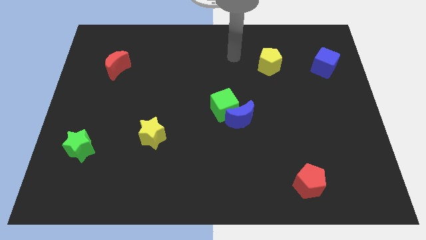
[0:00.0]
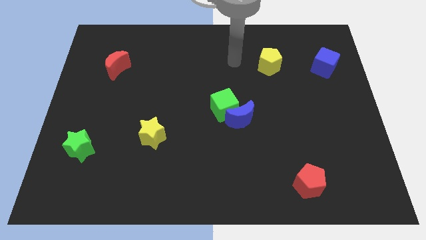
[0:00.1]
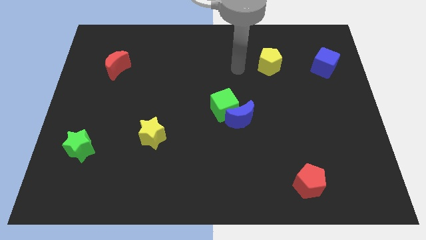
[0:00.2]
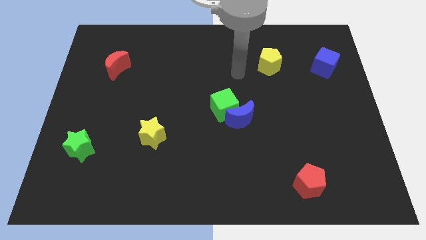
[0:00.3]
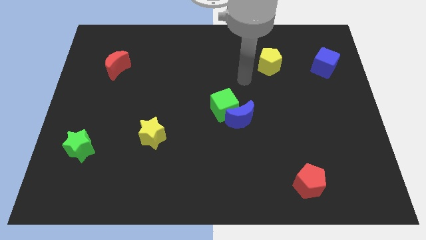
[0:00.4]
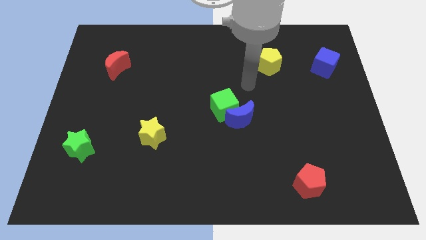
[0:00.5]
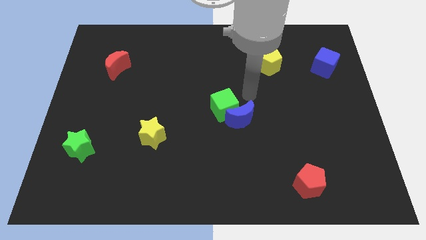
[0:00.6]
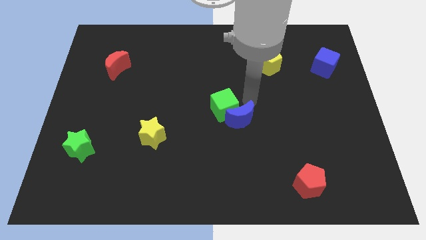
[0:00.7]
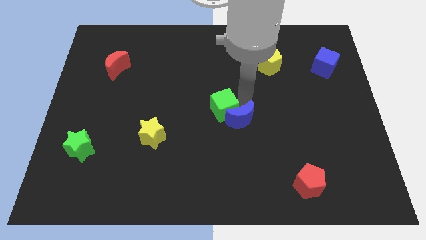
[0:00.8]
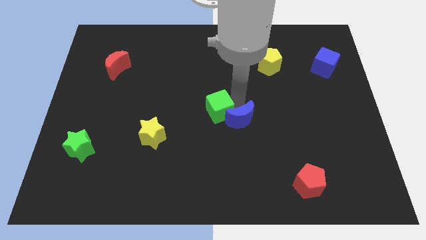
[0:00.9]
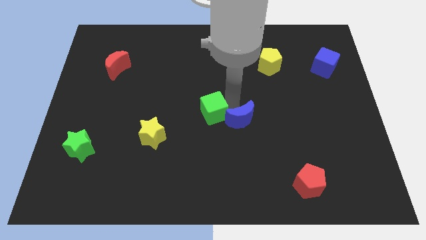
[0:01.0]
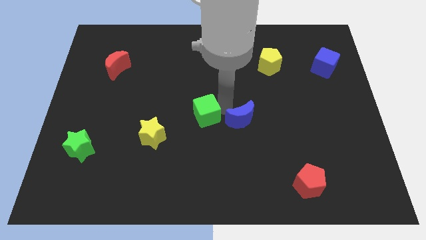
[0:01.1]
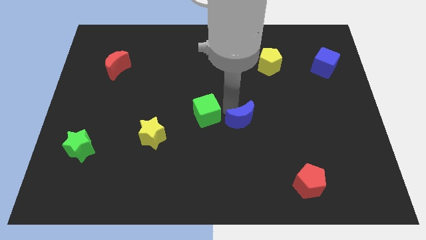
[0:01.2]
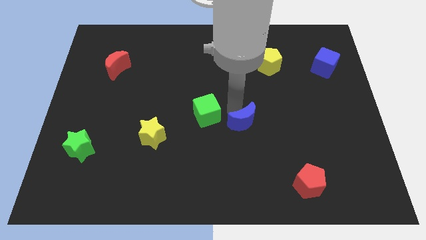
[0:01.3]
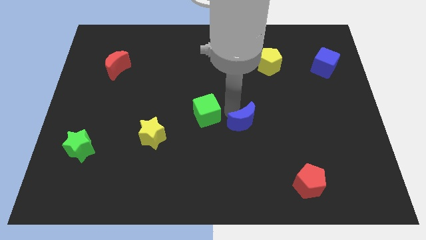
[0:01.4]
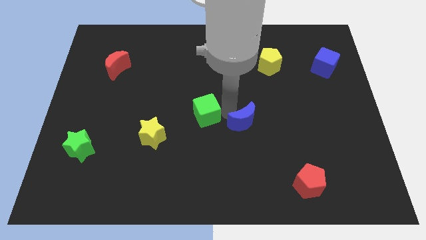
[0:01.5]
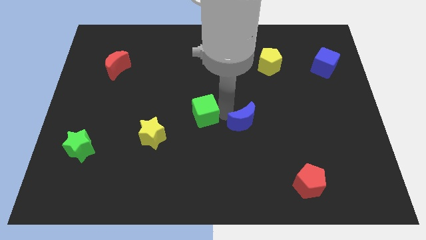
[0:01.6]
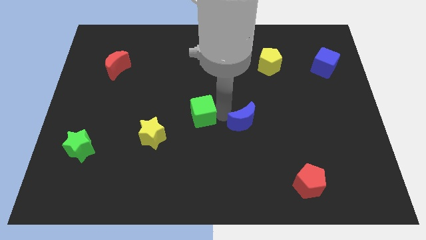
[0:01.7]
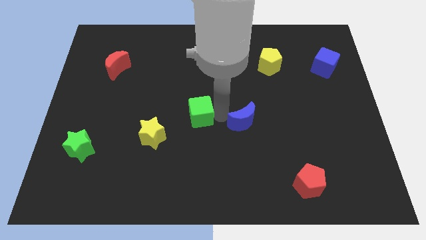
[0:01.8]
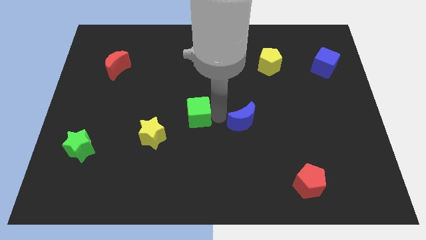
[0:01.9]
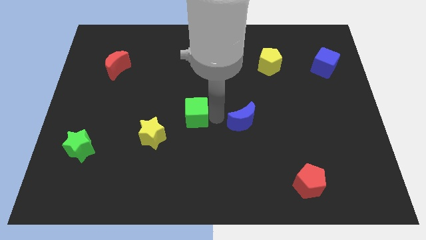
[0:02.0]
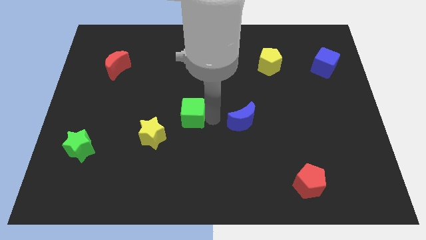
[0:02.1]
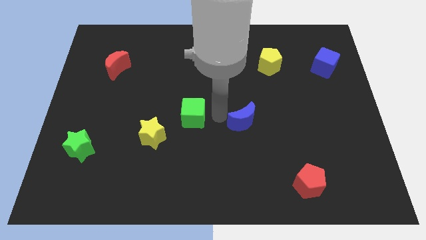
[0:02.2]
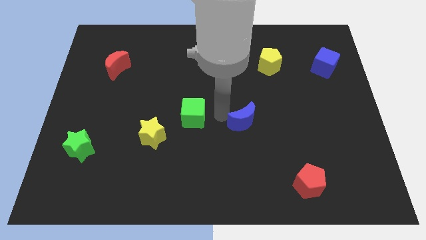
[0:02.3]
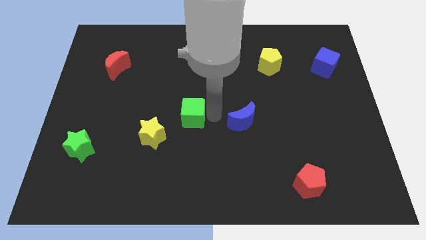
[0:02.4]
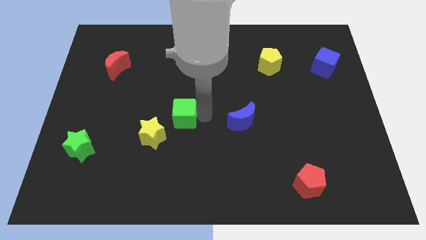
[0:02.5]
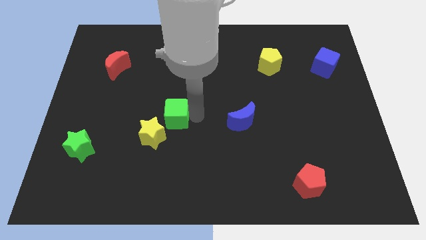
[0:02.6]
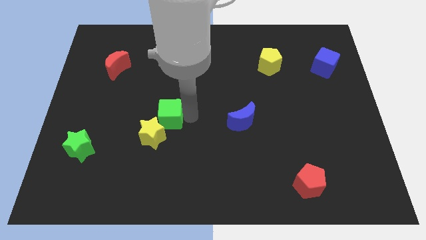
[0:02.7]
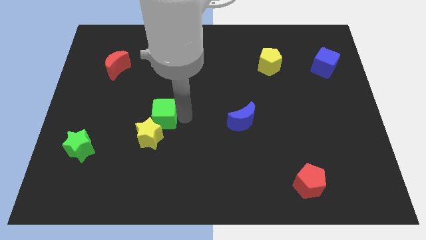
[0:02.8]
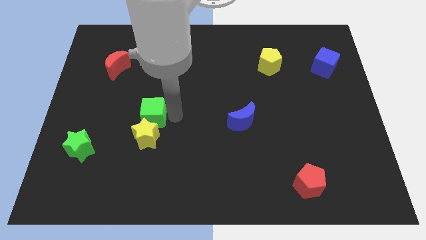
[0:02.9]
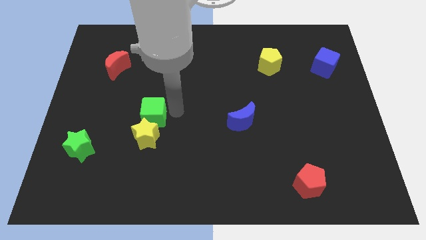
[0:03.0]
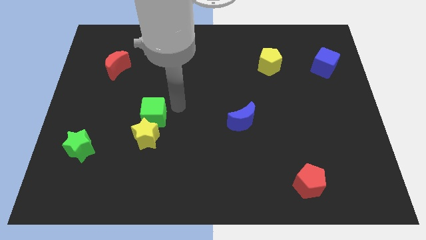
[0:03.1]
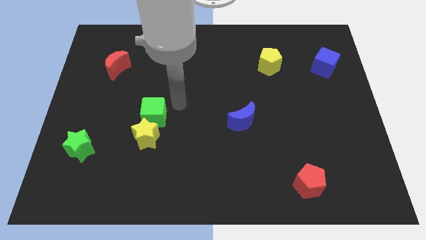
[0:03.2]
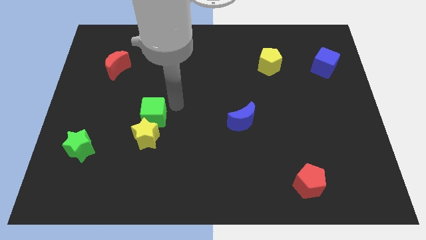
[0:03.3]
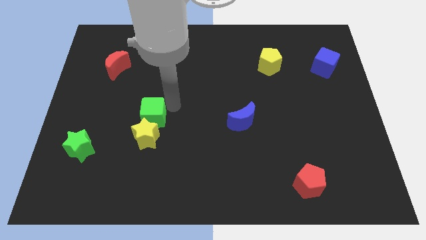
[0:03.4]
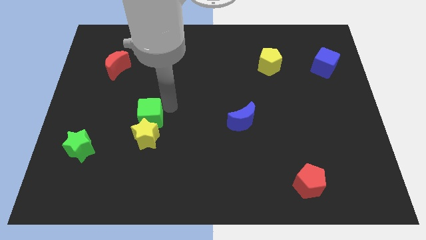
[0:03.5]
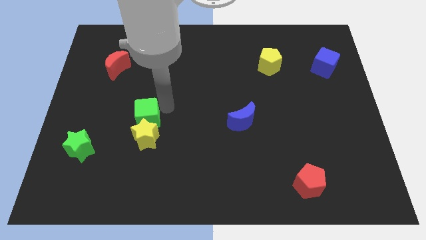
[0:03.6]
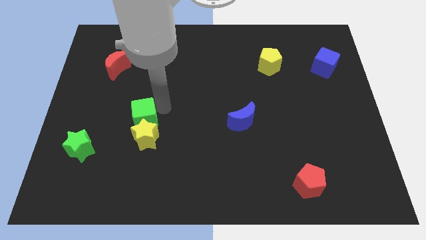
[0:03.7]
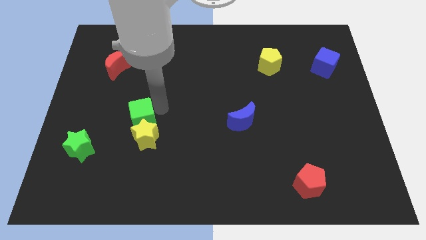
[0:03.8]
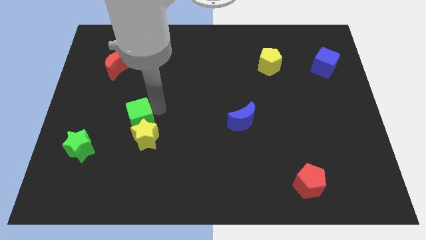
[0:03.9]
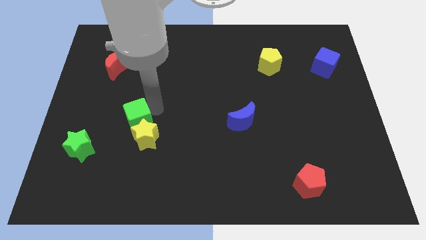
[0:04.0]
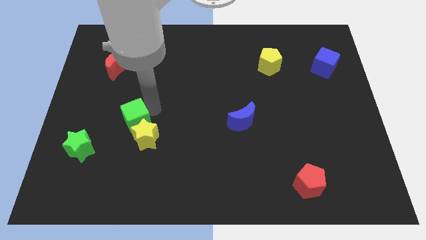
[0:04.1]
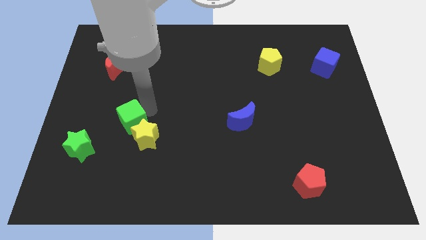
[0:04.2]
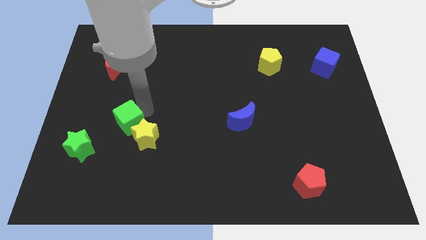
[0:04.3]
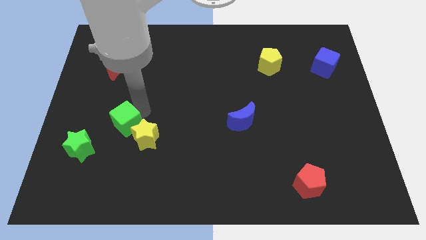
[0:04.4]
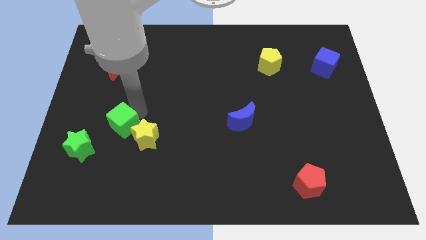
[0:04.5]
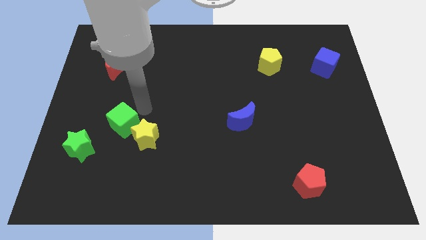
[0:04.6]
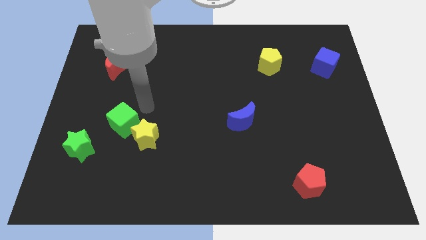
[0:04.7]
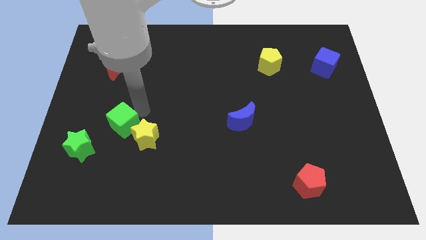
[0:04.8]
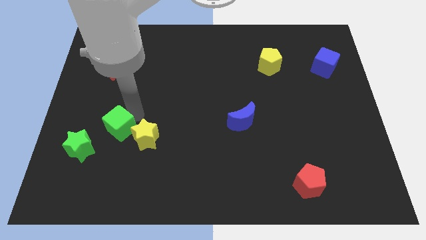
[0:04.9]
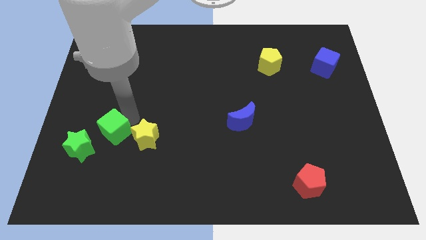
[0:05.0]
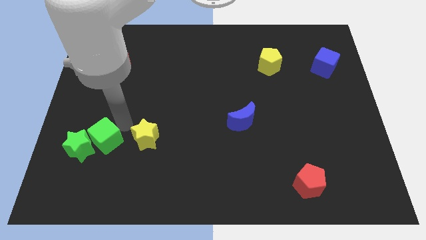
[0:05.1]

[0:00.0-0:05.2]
push the green cube to the green star

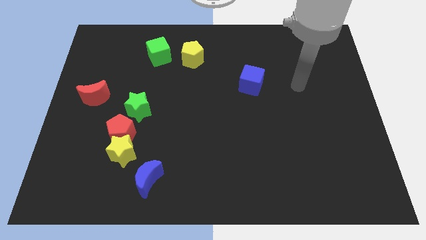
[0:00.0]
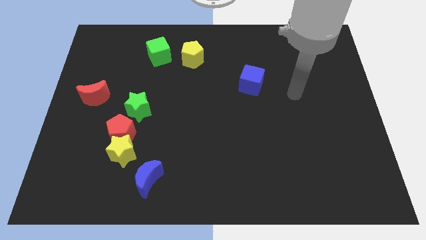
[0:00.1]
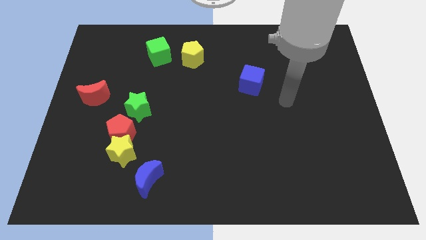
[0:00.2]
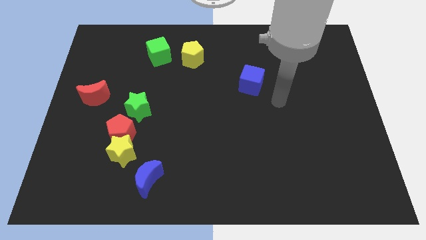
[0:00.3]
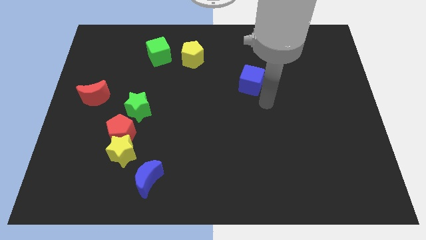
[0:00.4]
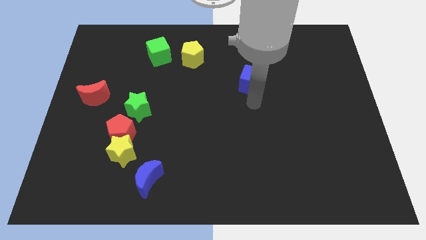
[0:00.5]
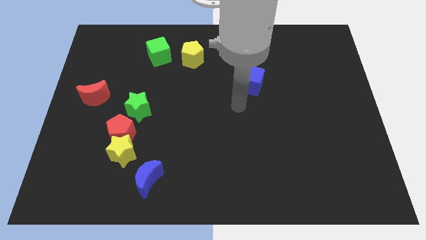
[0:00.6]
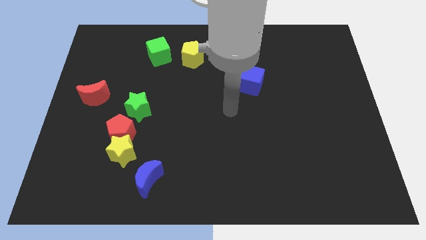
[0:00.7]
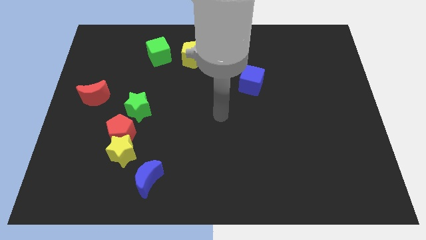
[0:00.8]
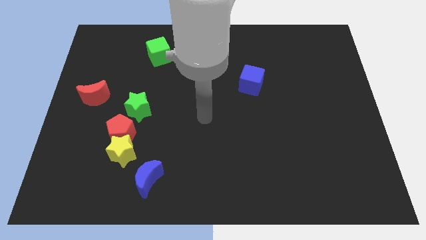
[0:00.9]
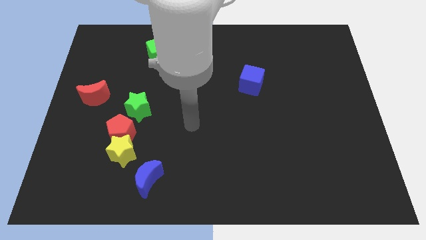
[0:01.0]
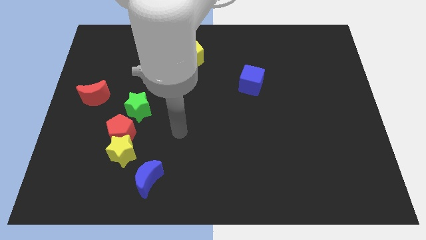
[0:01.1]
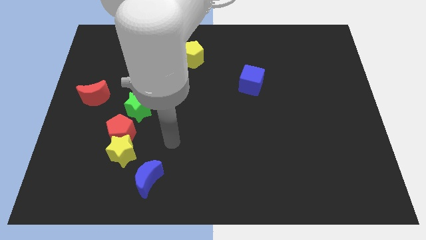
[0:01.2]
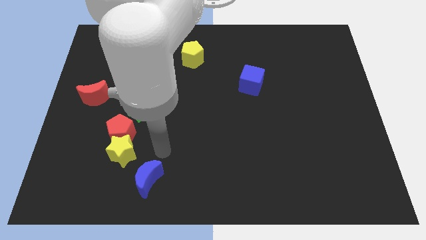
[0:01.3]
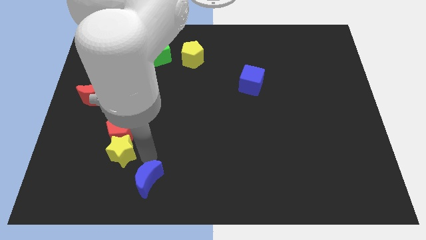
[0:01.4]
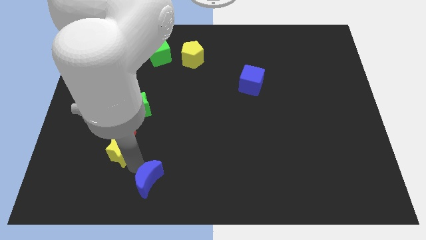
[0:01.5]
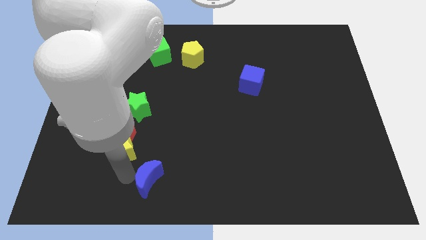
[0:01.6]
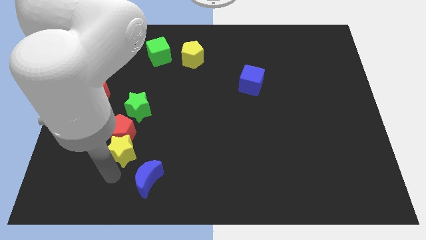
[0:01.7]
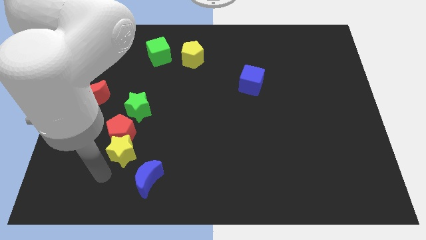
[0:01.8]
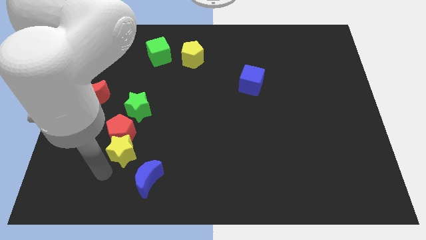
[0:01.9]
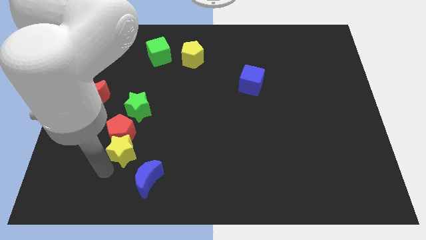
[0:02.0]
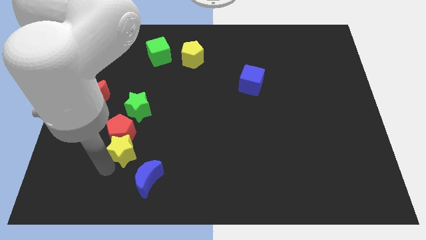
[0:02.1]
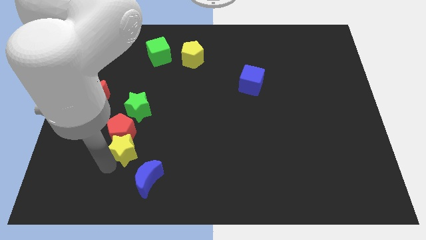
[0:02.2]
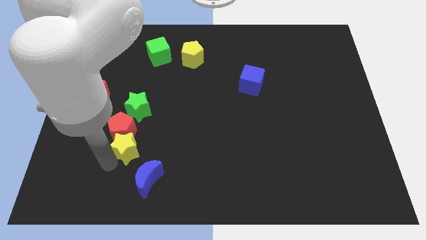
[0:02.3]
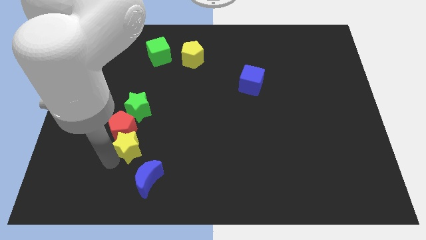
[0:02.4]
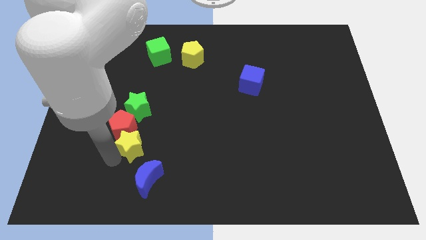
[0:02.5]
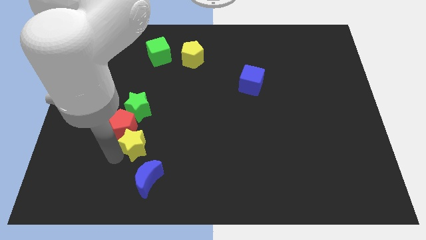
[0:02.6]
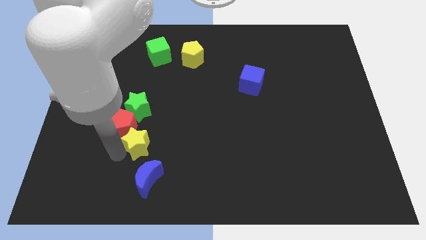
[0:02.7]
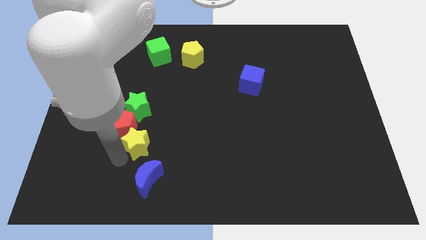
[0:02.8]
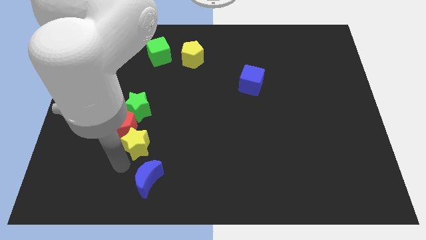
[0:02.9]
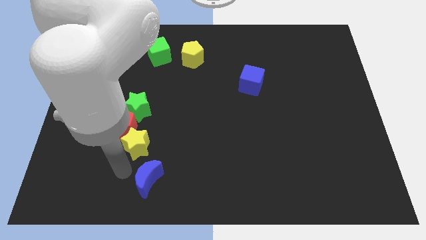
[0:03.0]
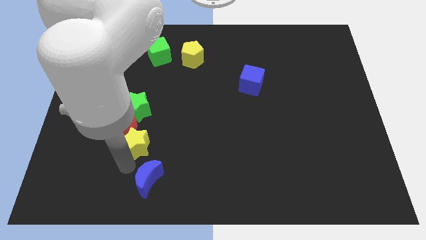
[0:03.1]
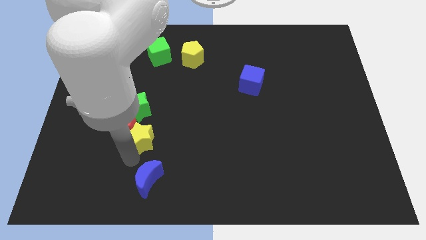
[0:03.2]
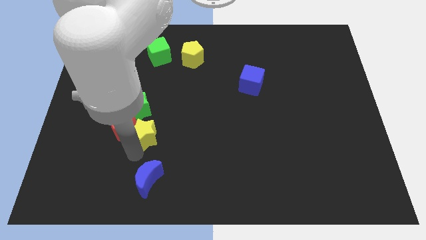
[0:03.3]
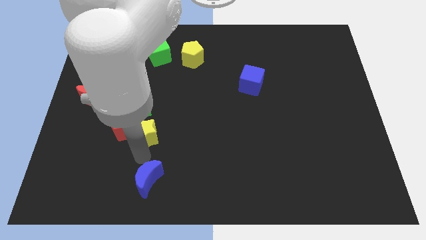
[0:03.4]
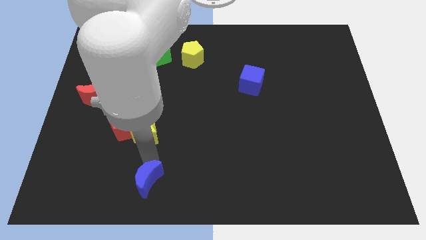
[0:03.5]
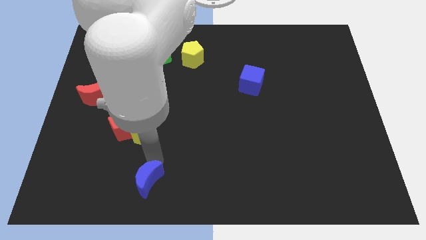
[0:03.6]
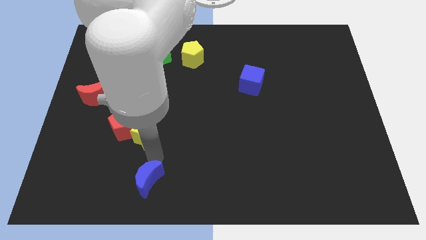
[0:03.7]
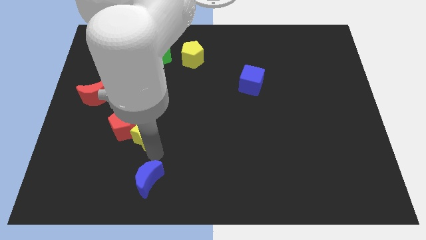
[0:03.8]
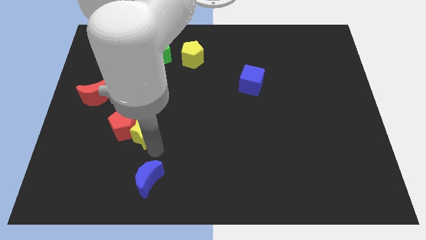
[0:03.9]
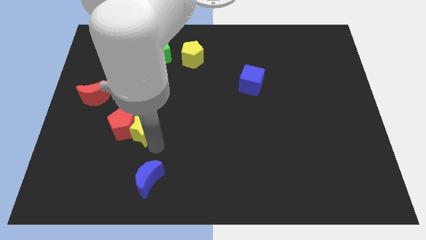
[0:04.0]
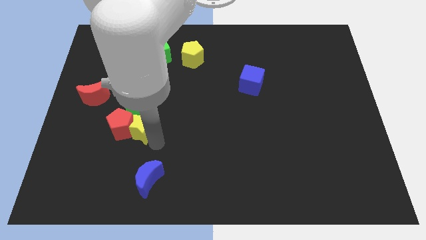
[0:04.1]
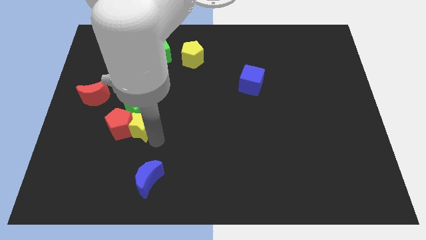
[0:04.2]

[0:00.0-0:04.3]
slide the yellow star to the green star
